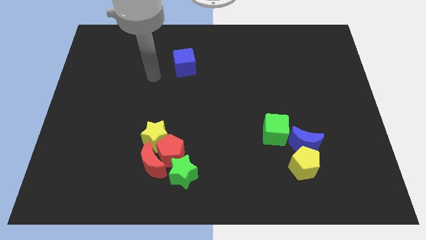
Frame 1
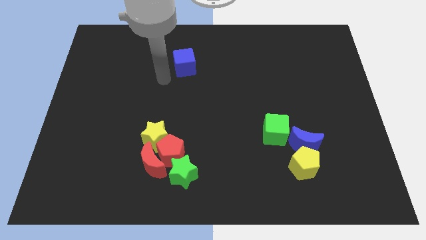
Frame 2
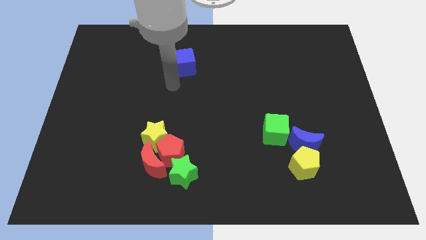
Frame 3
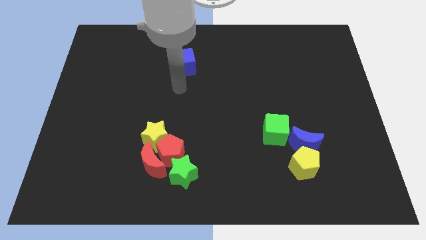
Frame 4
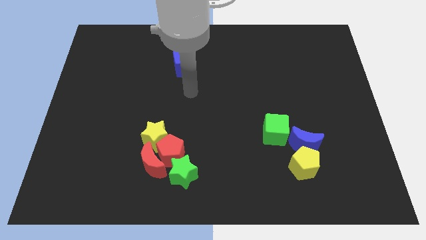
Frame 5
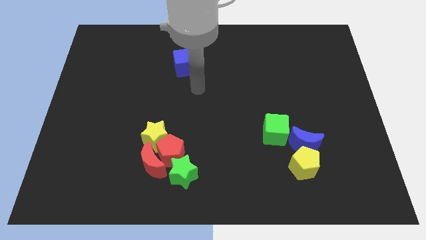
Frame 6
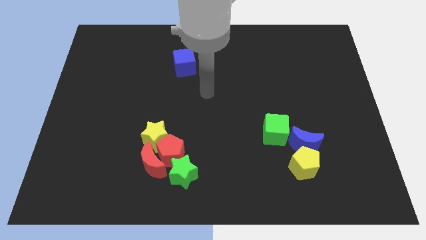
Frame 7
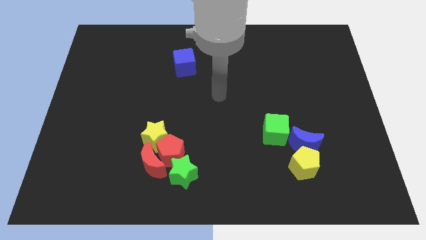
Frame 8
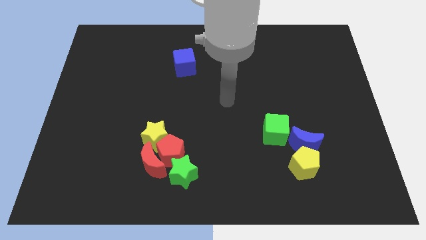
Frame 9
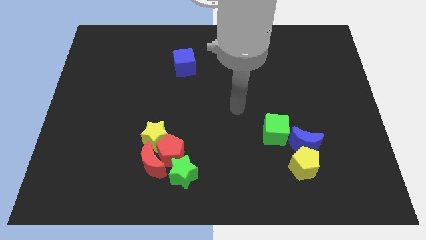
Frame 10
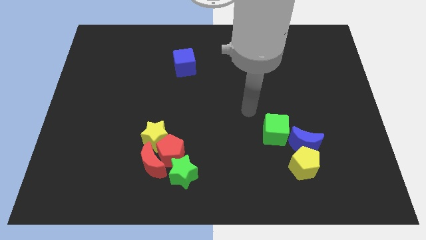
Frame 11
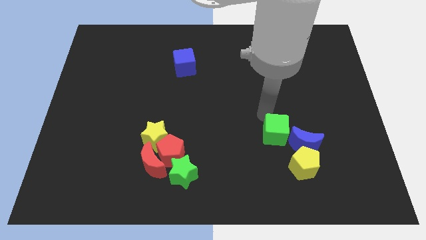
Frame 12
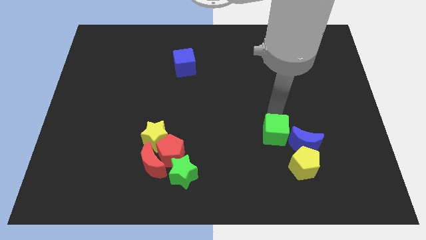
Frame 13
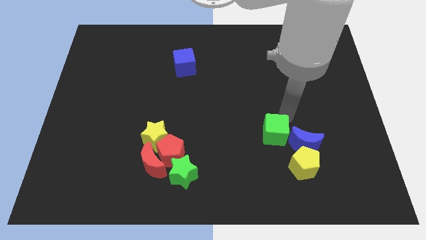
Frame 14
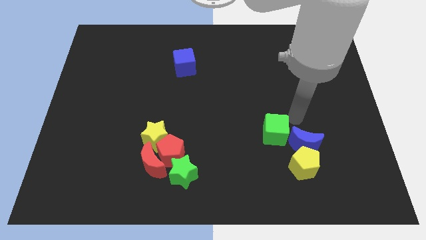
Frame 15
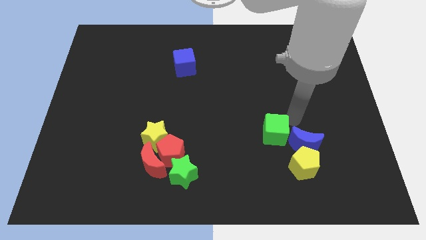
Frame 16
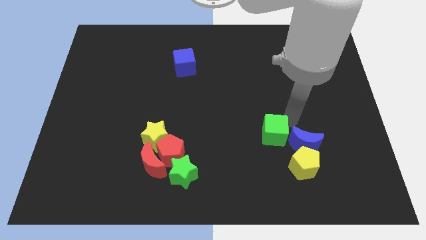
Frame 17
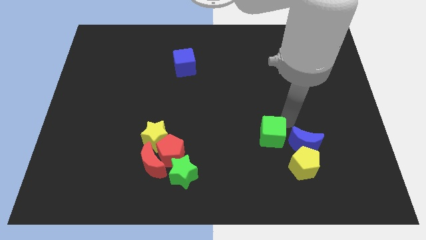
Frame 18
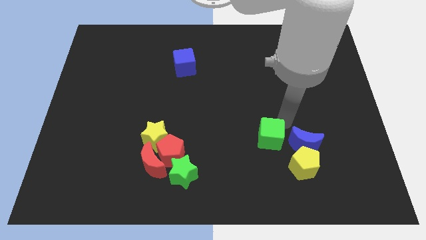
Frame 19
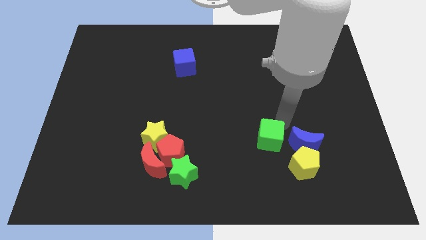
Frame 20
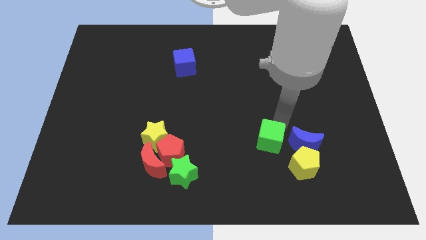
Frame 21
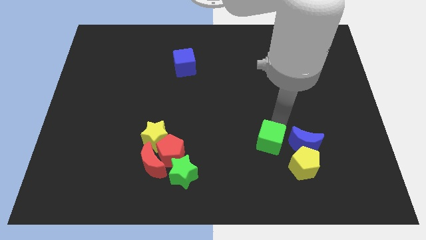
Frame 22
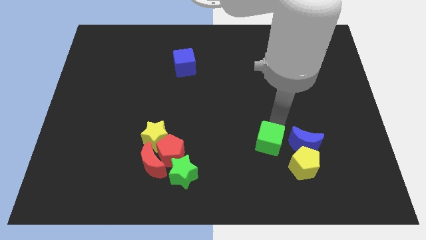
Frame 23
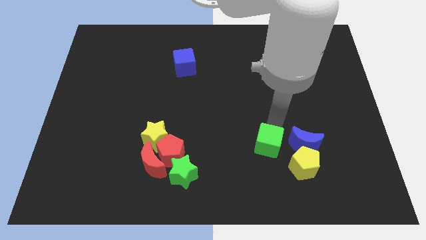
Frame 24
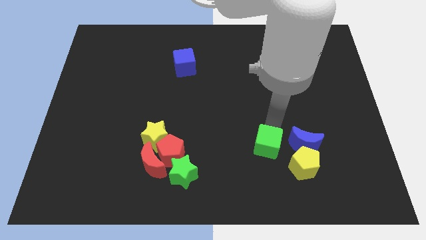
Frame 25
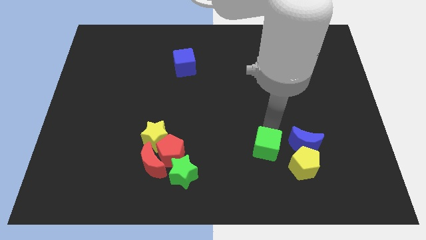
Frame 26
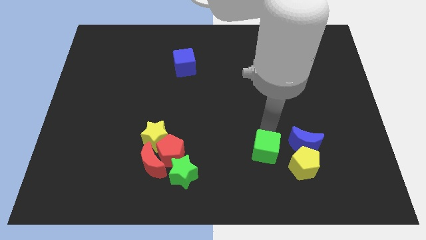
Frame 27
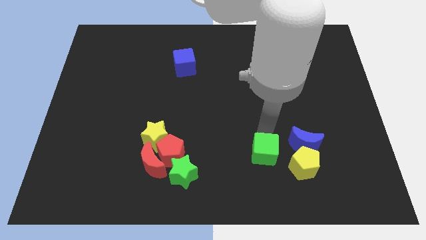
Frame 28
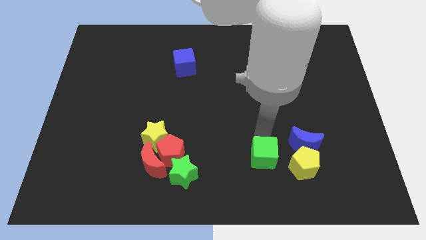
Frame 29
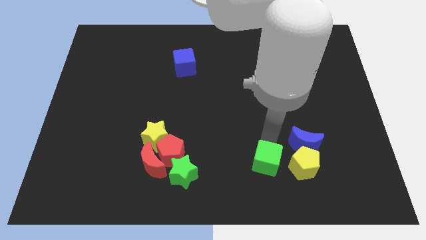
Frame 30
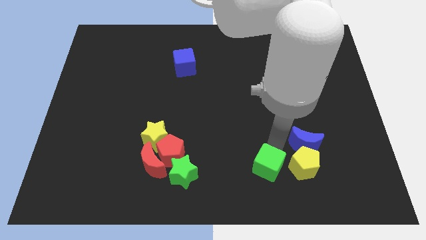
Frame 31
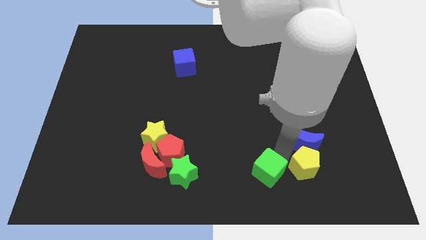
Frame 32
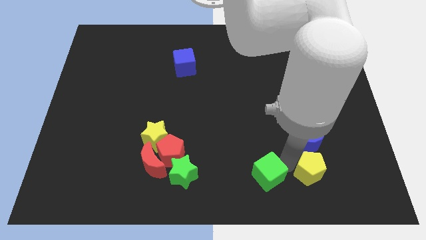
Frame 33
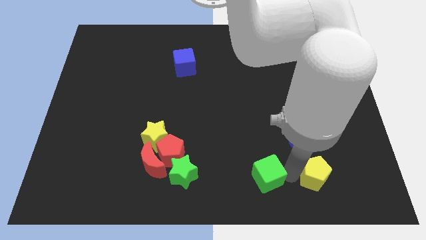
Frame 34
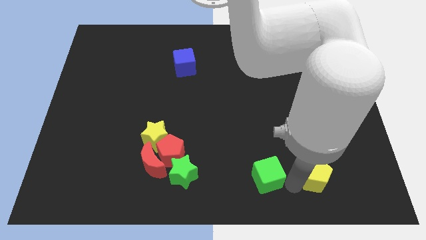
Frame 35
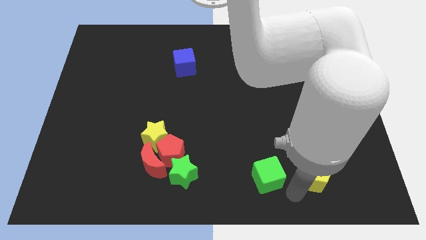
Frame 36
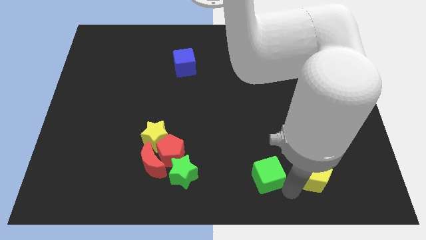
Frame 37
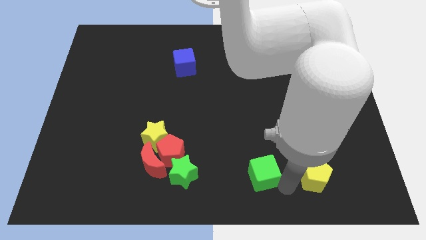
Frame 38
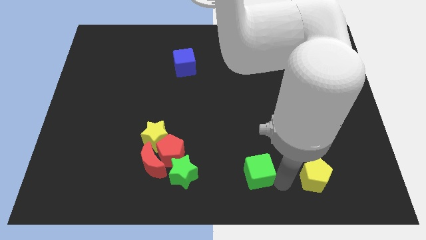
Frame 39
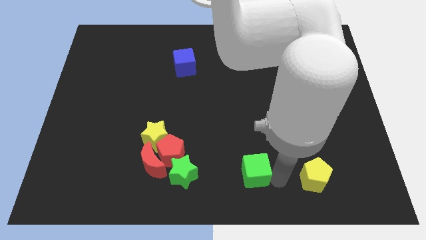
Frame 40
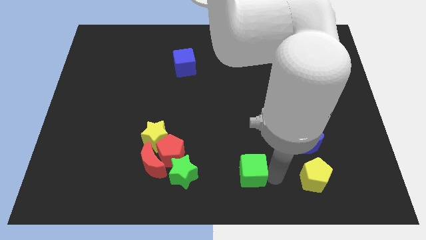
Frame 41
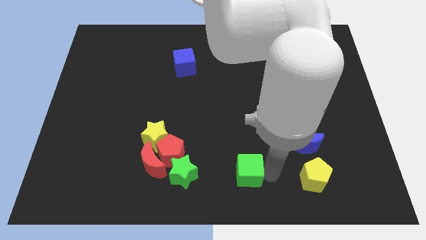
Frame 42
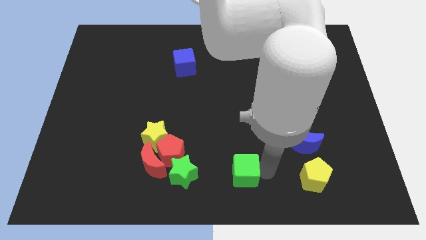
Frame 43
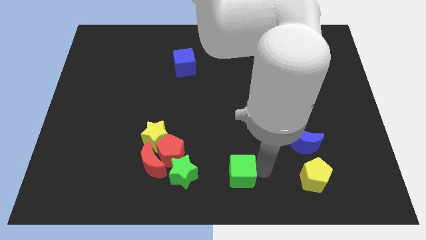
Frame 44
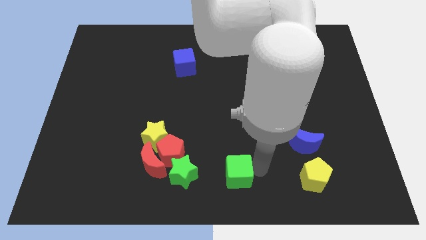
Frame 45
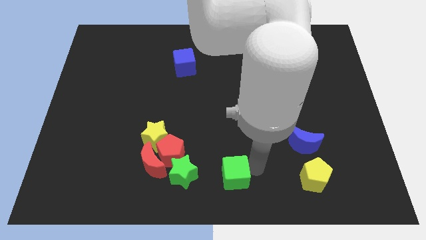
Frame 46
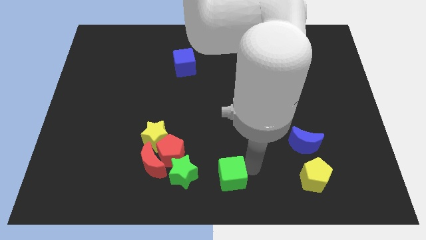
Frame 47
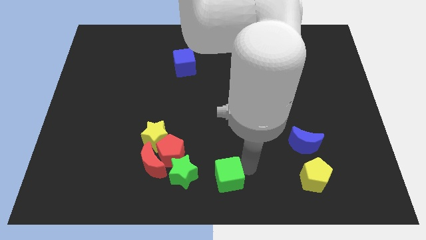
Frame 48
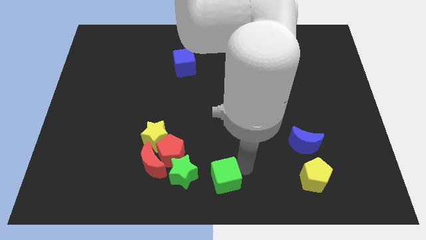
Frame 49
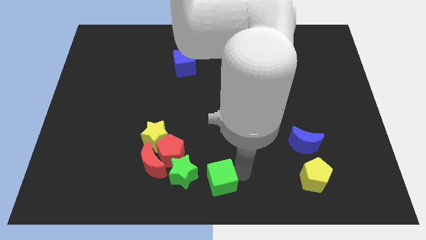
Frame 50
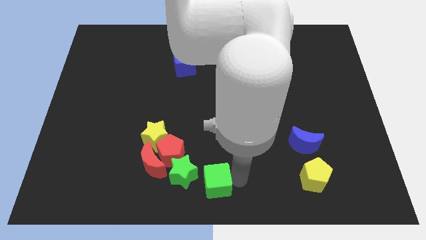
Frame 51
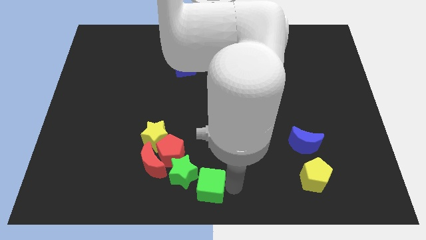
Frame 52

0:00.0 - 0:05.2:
slide the green cube close to the green star

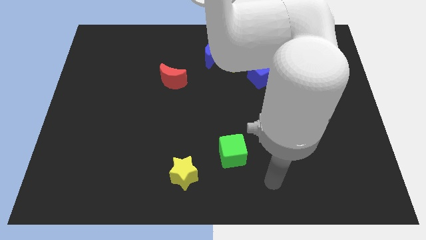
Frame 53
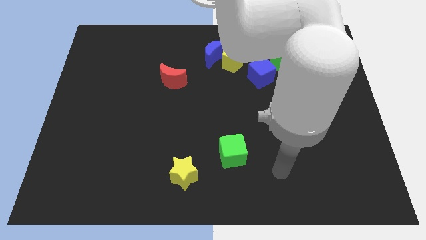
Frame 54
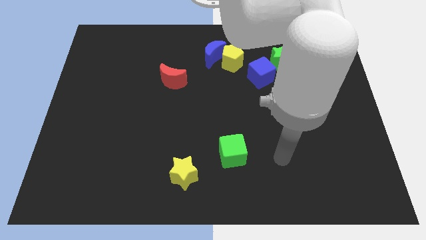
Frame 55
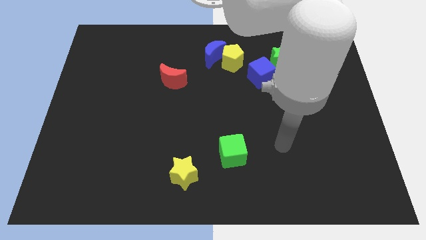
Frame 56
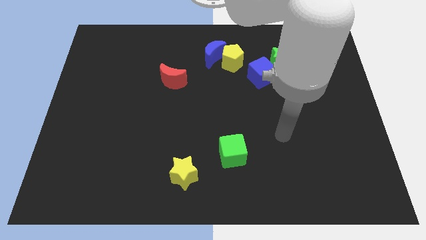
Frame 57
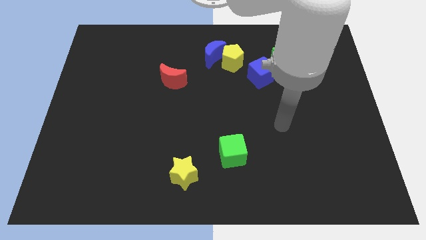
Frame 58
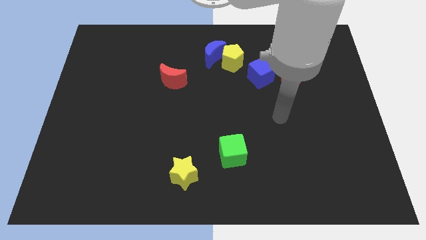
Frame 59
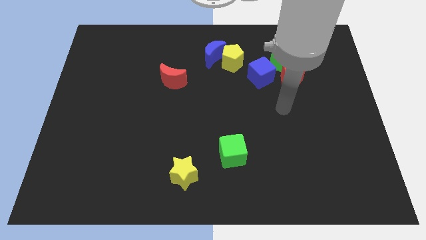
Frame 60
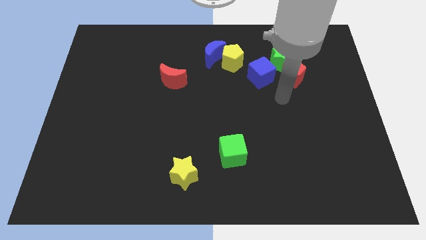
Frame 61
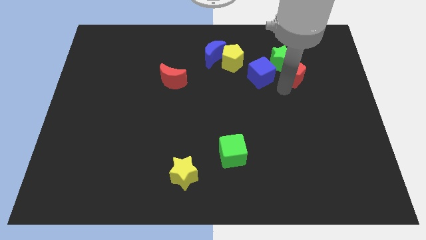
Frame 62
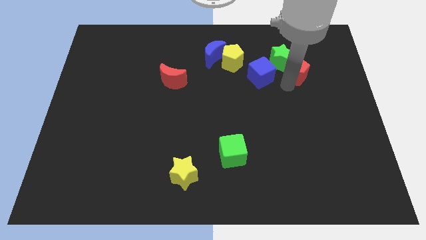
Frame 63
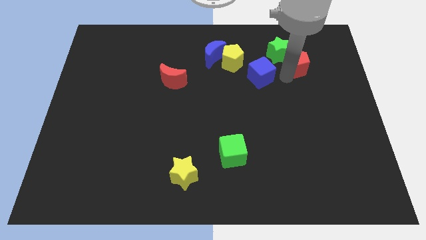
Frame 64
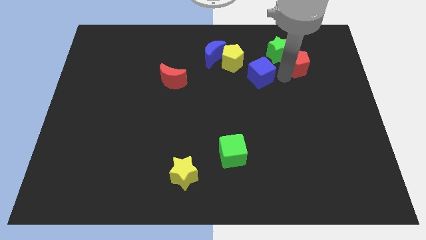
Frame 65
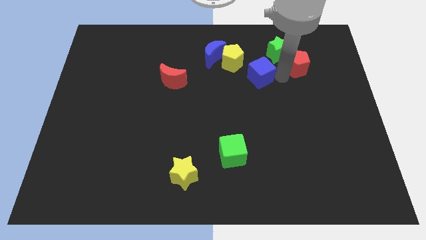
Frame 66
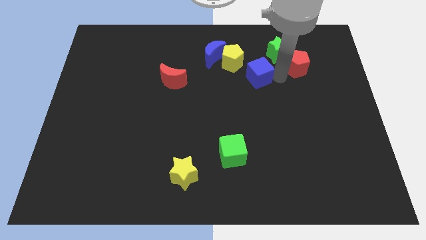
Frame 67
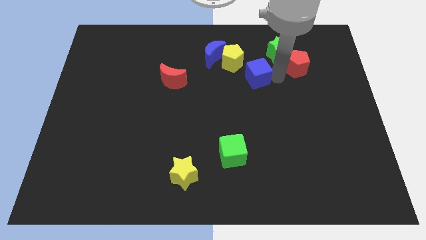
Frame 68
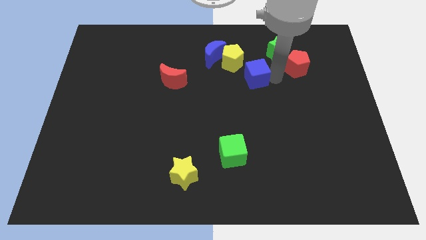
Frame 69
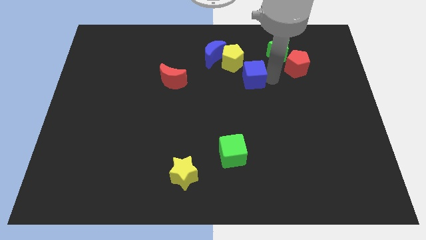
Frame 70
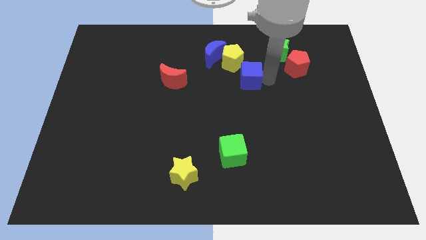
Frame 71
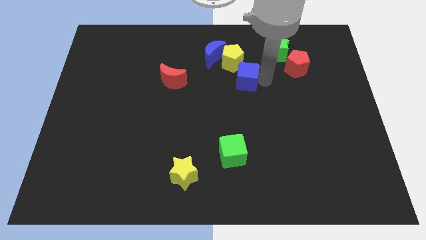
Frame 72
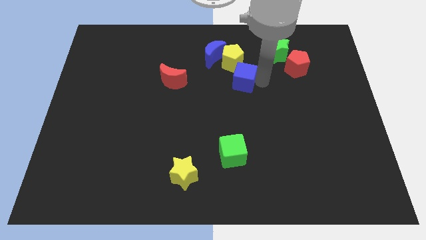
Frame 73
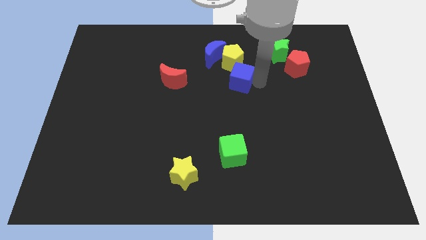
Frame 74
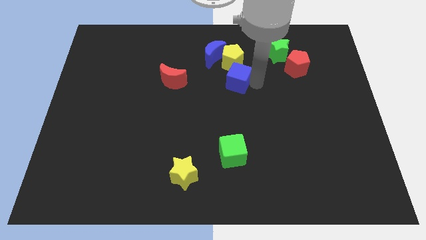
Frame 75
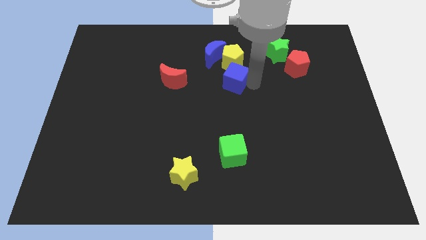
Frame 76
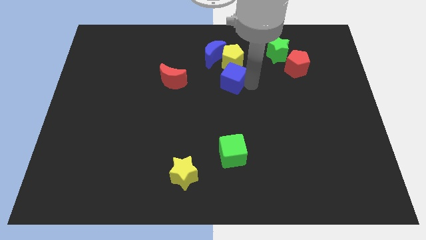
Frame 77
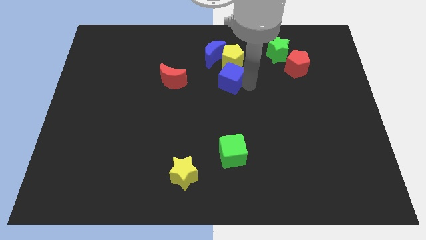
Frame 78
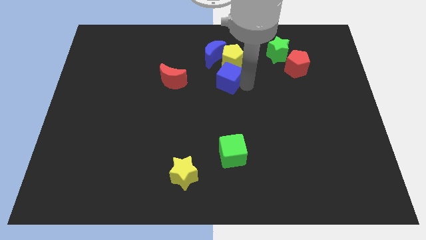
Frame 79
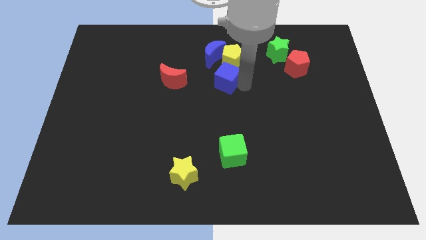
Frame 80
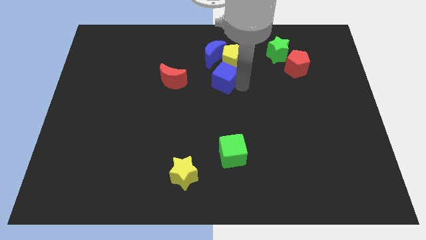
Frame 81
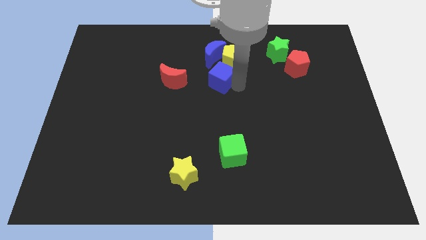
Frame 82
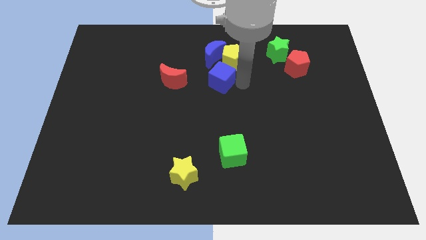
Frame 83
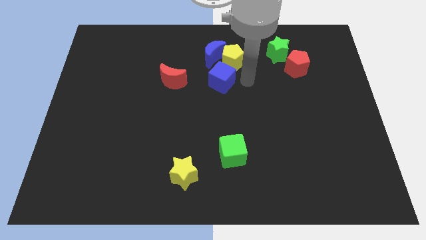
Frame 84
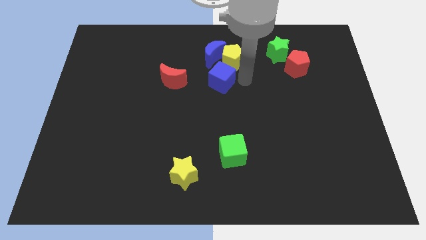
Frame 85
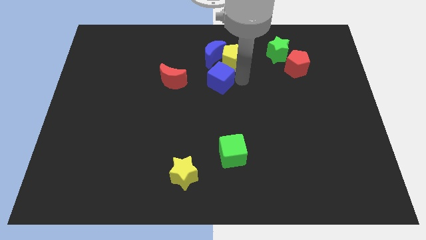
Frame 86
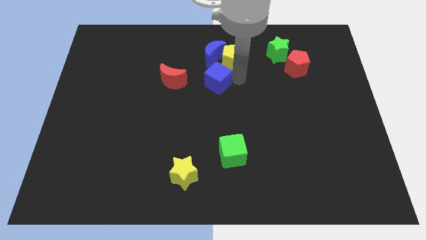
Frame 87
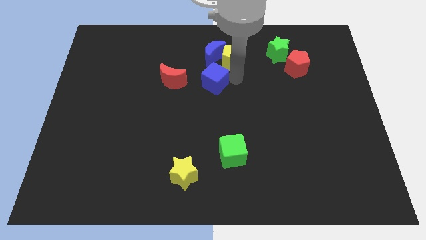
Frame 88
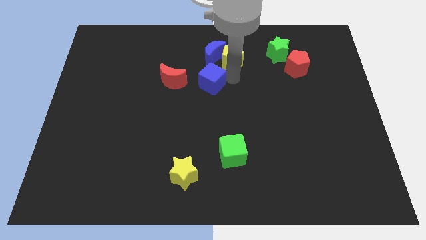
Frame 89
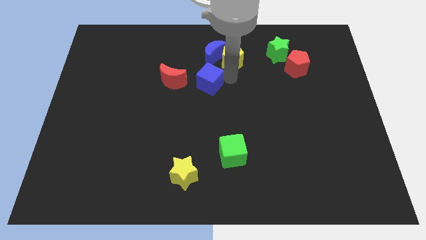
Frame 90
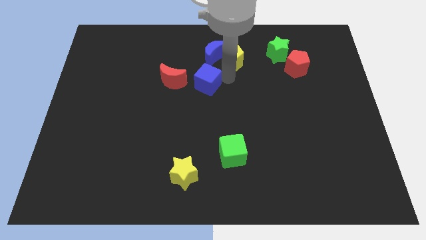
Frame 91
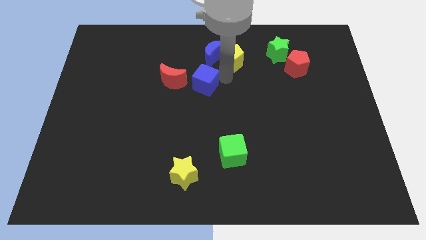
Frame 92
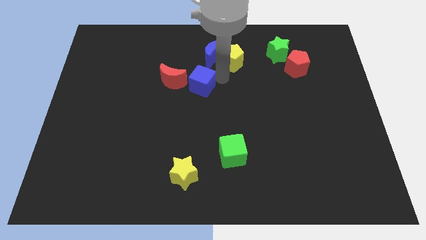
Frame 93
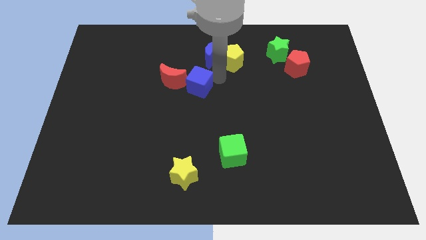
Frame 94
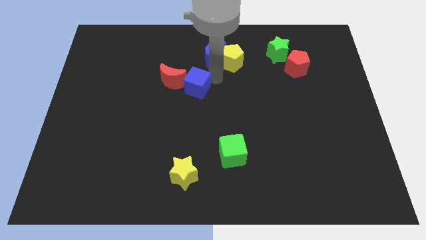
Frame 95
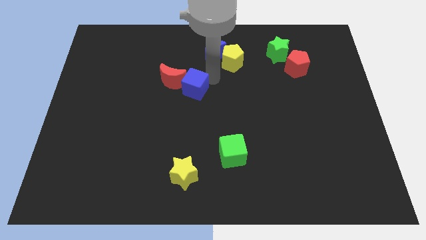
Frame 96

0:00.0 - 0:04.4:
push the blue cube close to the red moon
